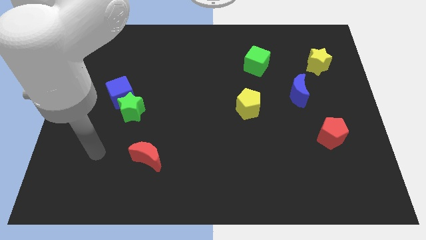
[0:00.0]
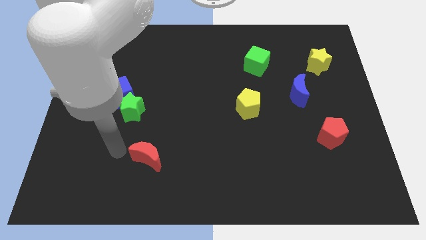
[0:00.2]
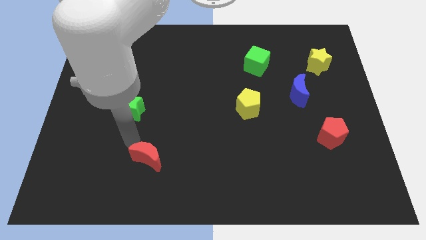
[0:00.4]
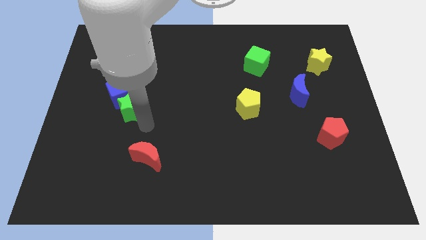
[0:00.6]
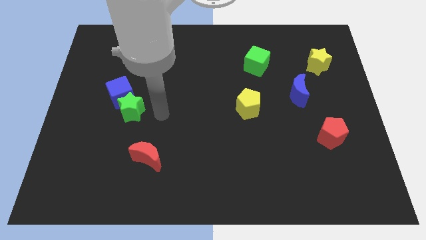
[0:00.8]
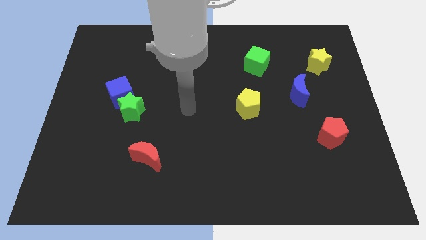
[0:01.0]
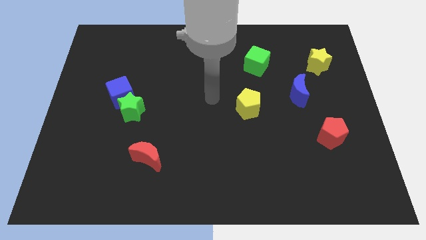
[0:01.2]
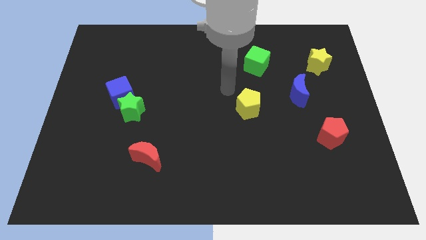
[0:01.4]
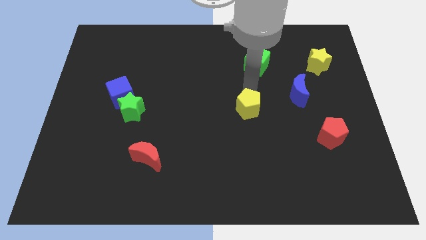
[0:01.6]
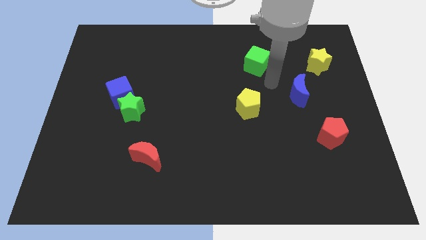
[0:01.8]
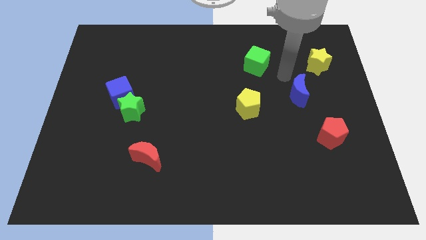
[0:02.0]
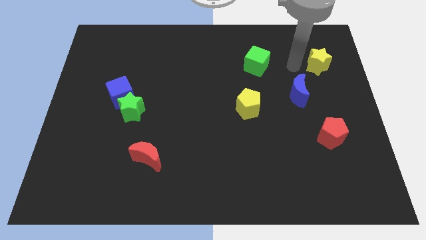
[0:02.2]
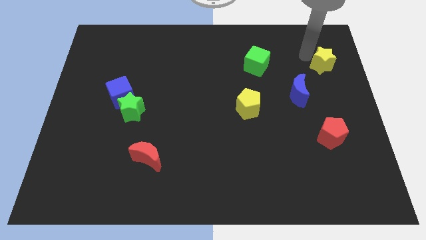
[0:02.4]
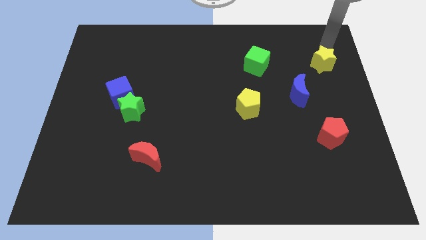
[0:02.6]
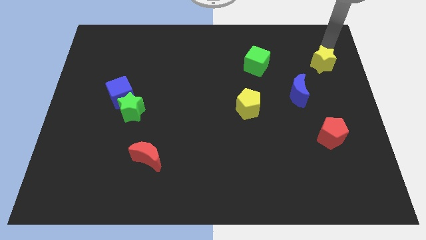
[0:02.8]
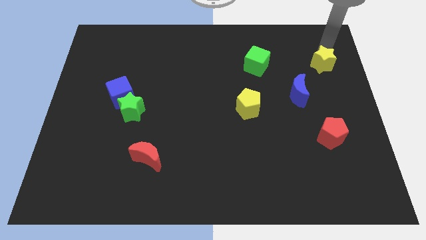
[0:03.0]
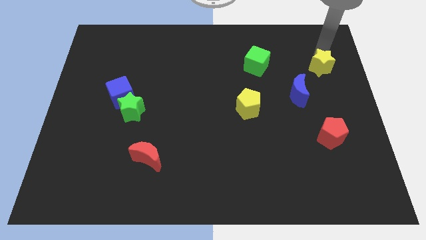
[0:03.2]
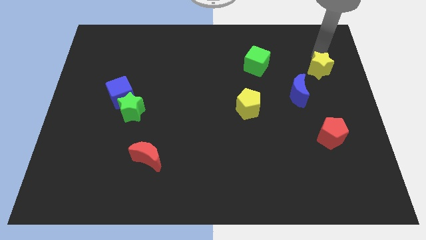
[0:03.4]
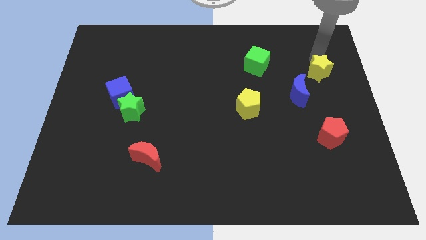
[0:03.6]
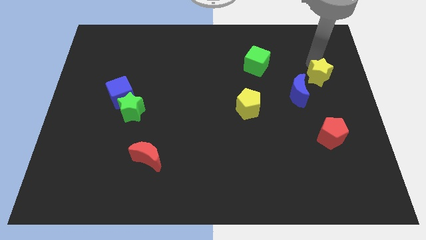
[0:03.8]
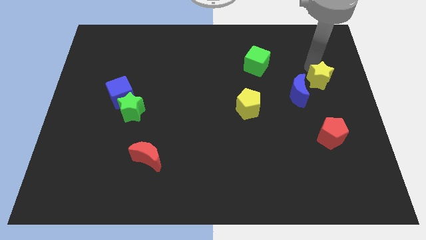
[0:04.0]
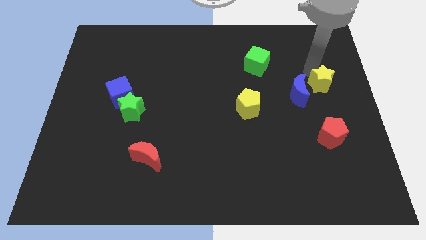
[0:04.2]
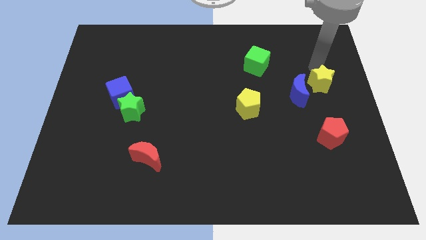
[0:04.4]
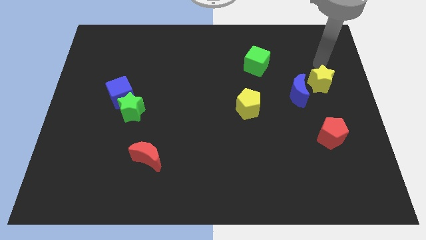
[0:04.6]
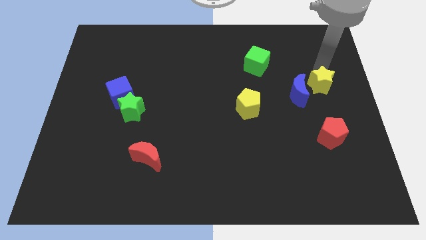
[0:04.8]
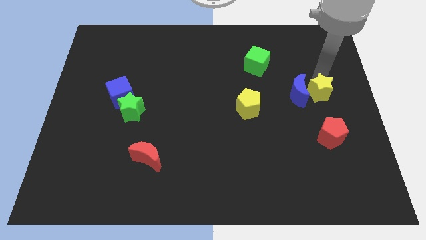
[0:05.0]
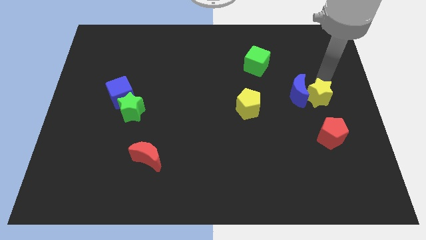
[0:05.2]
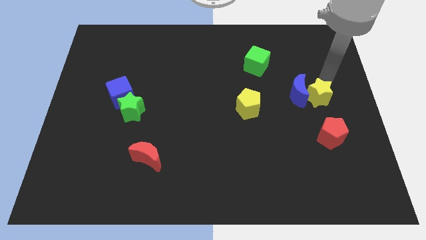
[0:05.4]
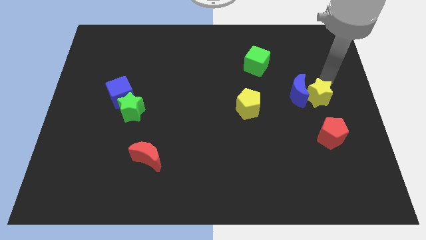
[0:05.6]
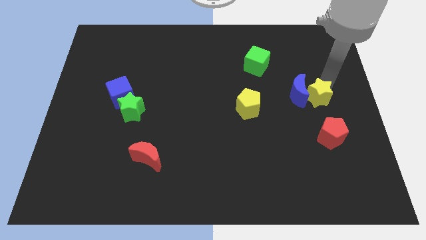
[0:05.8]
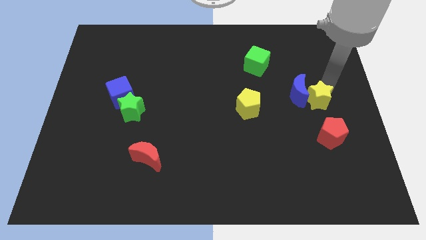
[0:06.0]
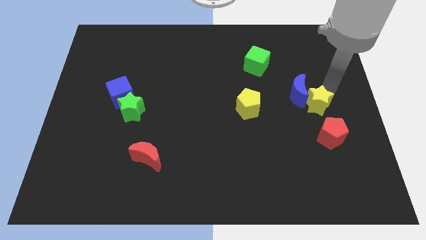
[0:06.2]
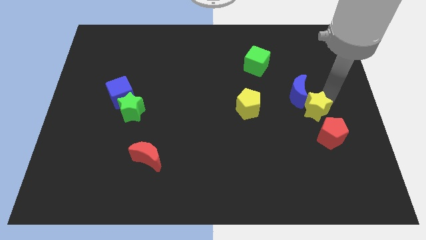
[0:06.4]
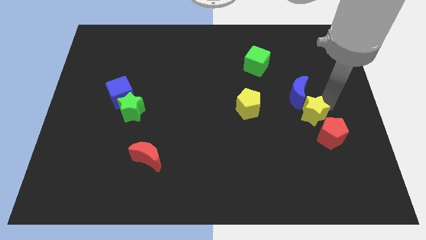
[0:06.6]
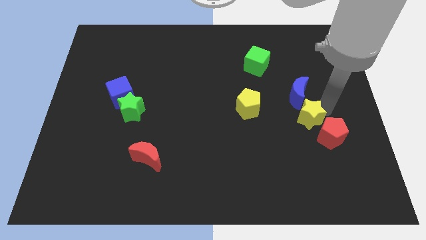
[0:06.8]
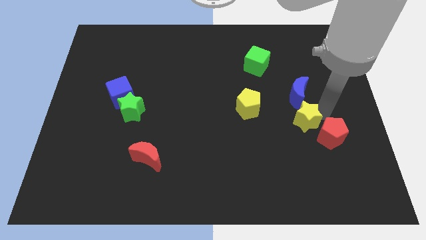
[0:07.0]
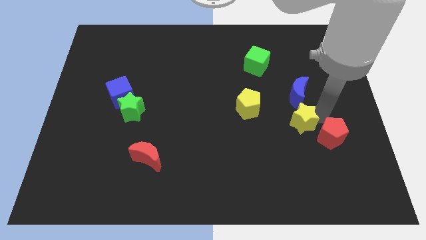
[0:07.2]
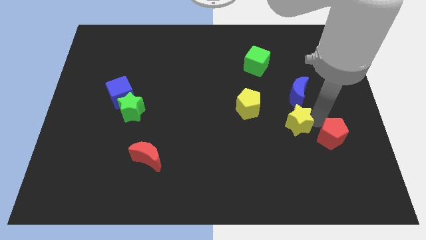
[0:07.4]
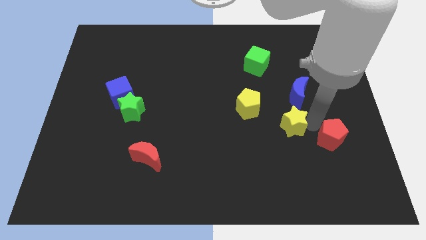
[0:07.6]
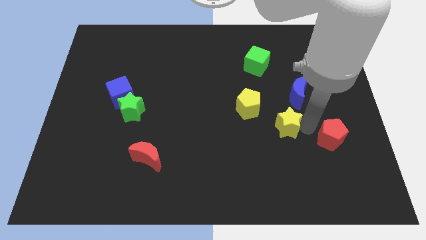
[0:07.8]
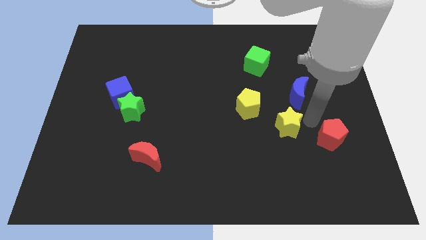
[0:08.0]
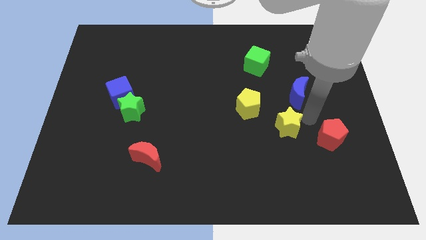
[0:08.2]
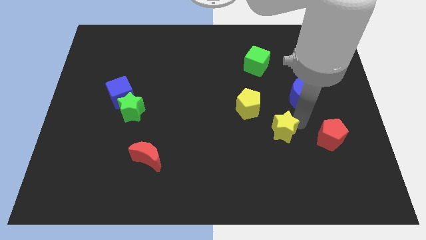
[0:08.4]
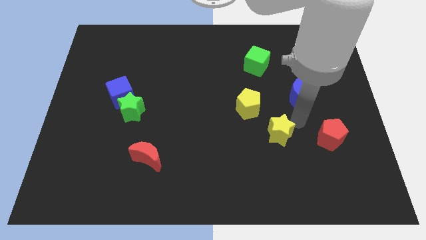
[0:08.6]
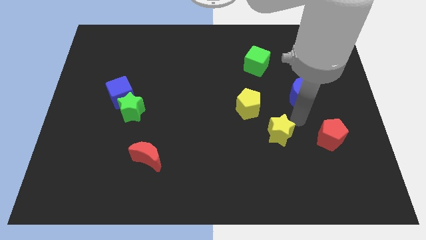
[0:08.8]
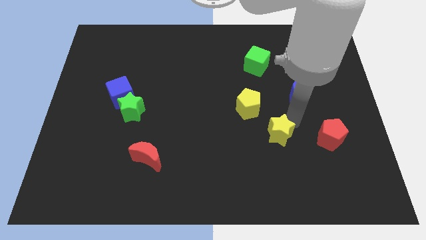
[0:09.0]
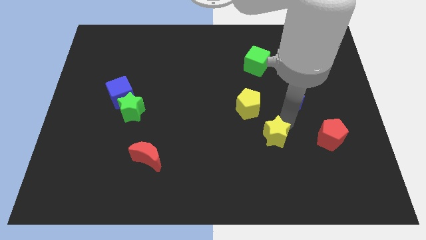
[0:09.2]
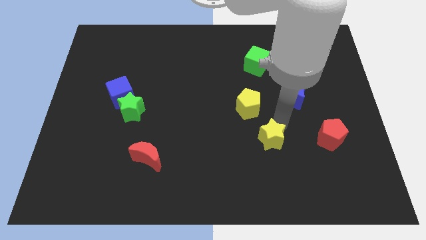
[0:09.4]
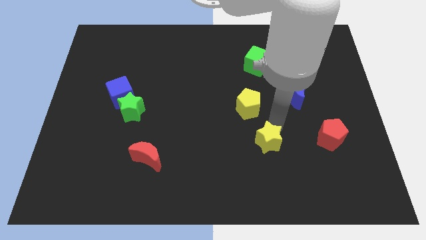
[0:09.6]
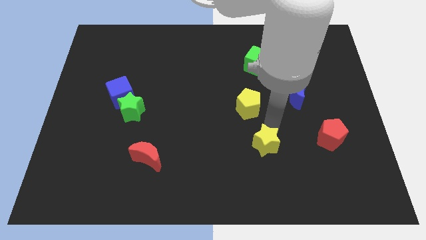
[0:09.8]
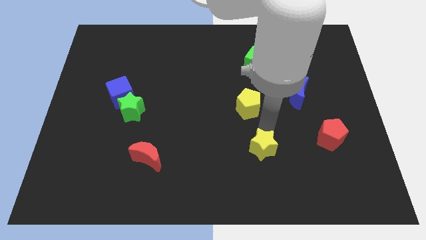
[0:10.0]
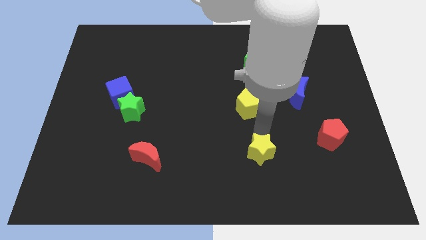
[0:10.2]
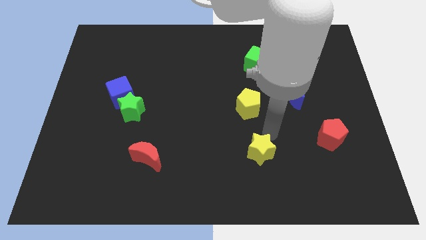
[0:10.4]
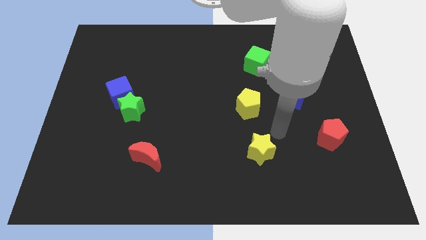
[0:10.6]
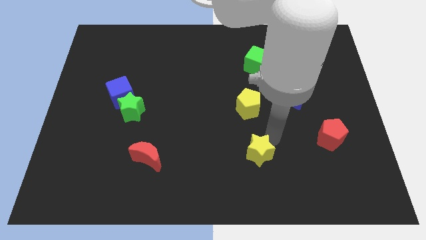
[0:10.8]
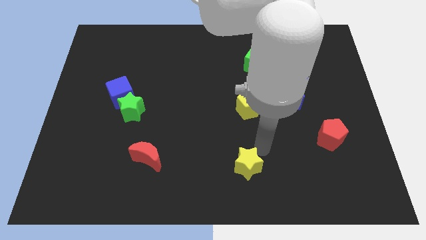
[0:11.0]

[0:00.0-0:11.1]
put the yellow star to the bottom side

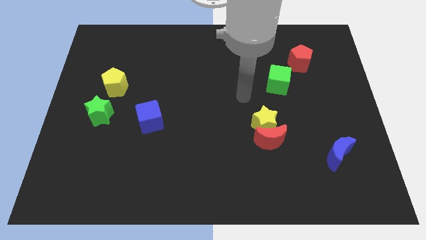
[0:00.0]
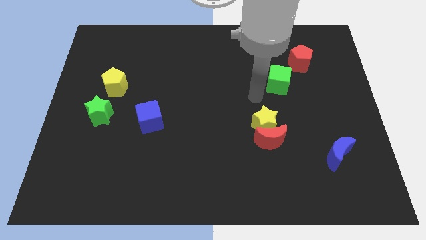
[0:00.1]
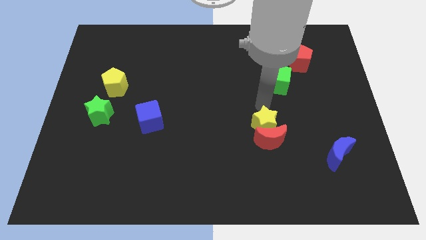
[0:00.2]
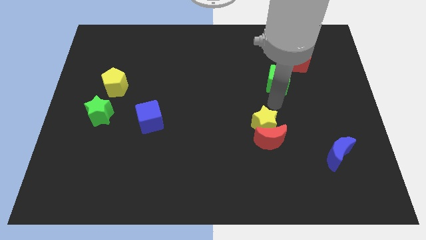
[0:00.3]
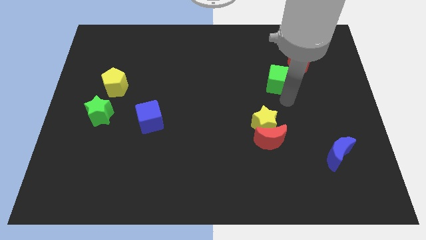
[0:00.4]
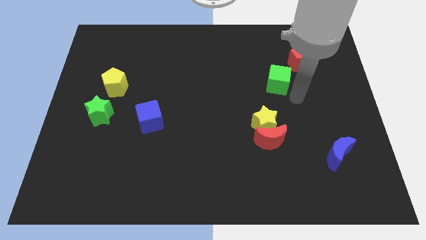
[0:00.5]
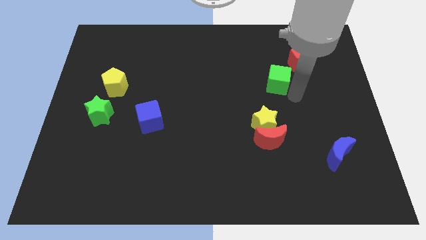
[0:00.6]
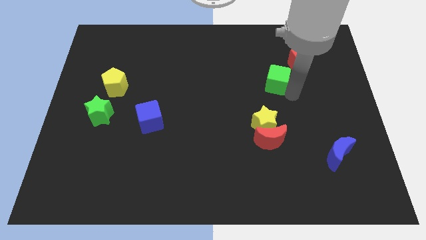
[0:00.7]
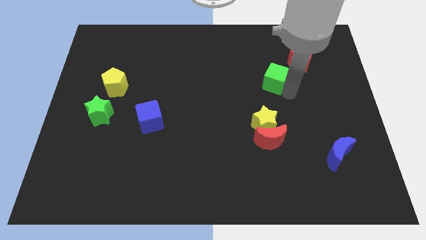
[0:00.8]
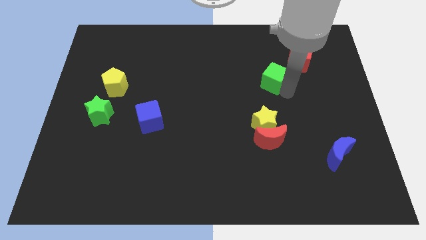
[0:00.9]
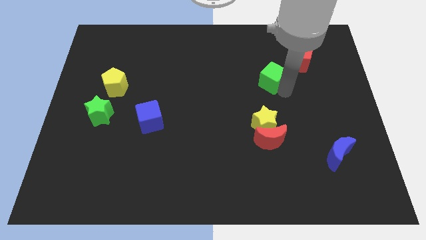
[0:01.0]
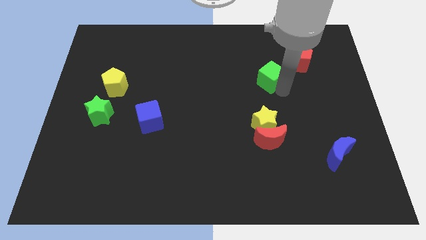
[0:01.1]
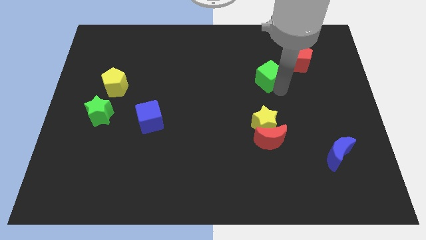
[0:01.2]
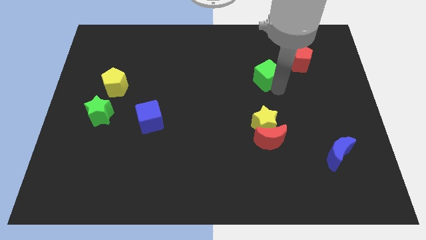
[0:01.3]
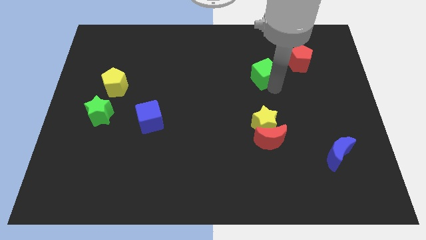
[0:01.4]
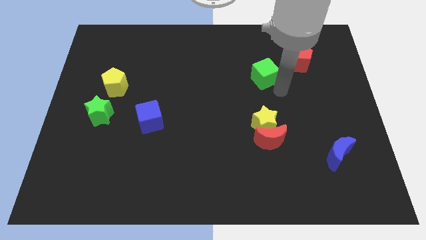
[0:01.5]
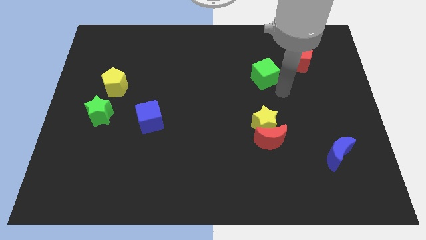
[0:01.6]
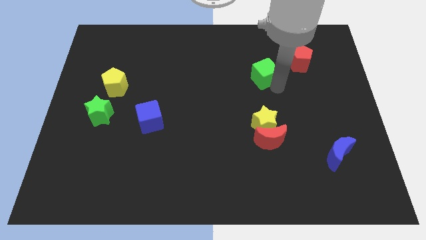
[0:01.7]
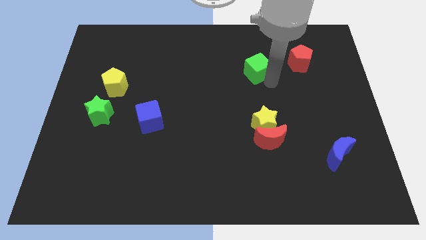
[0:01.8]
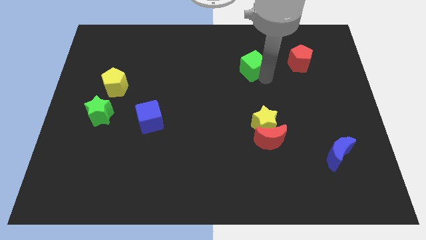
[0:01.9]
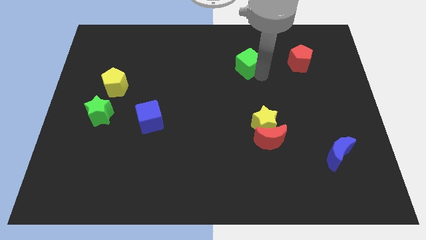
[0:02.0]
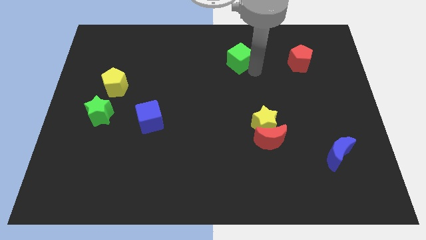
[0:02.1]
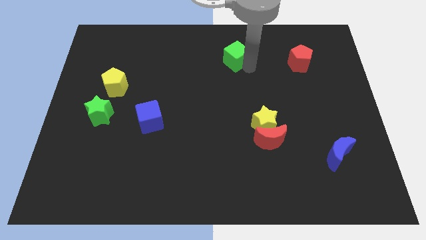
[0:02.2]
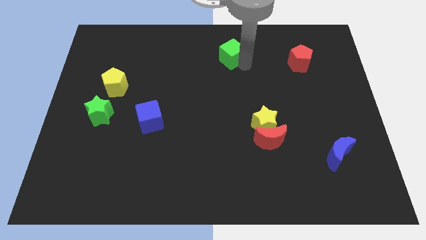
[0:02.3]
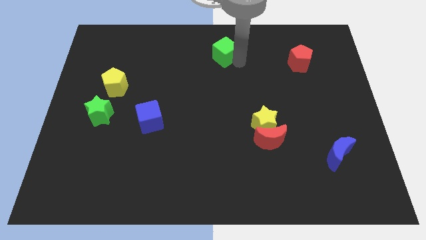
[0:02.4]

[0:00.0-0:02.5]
put the green cube to the top side
